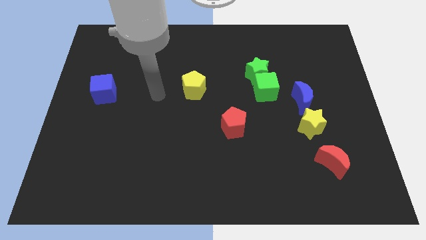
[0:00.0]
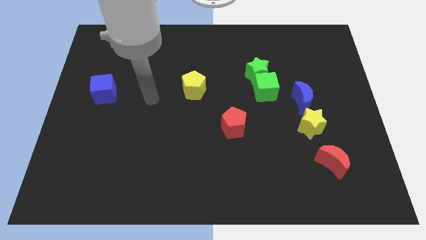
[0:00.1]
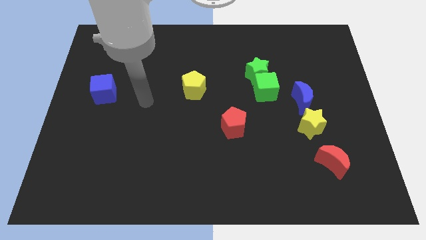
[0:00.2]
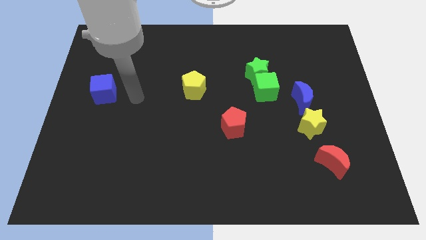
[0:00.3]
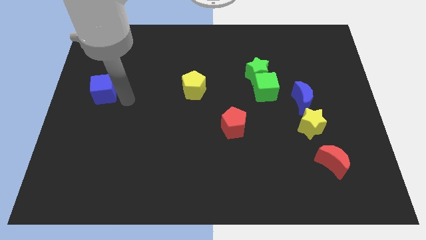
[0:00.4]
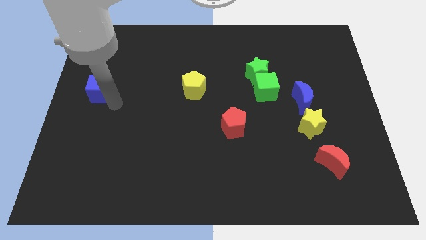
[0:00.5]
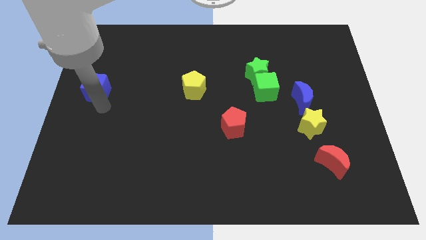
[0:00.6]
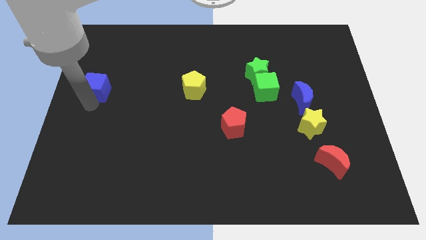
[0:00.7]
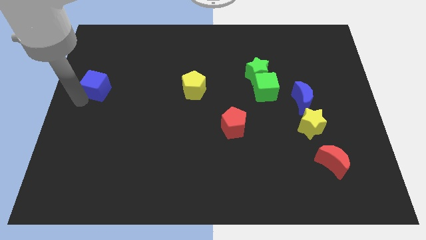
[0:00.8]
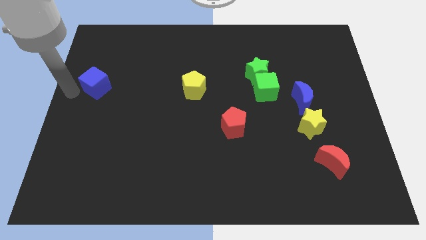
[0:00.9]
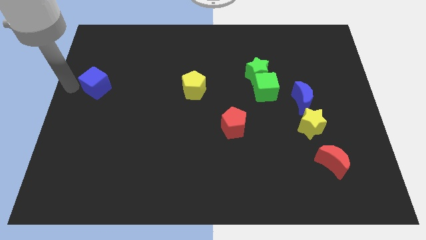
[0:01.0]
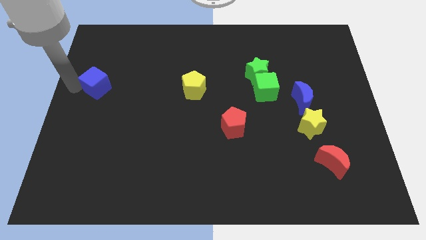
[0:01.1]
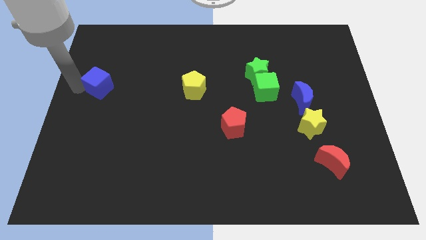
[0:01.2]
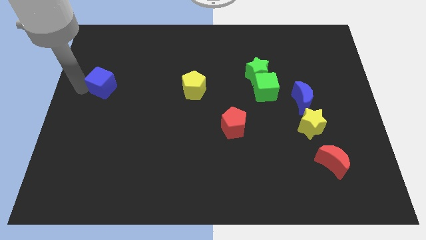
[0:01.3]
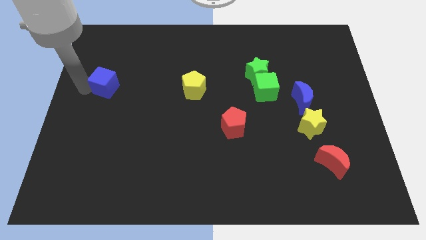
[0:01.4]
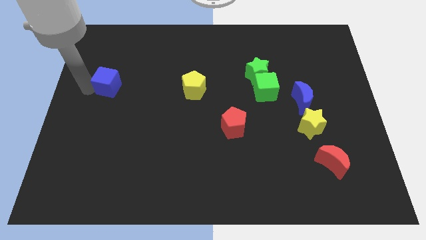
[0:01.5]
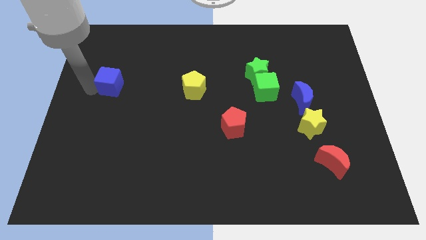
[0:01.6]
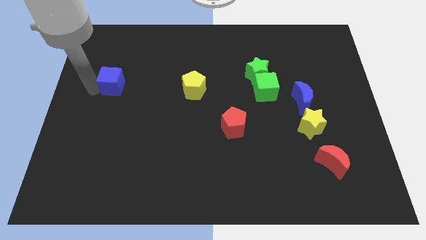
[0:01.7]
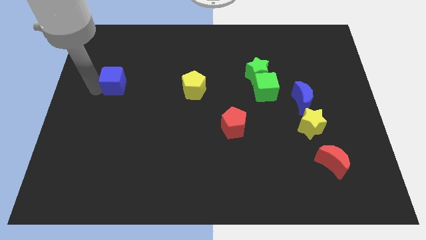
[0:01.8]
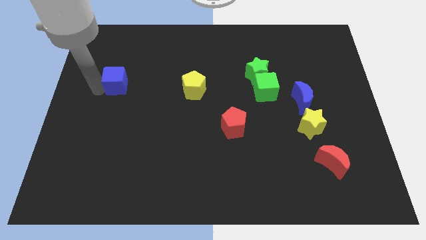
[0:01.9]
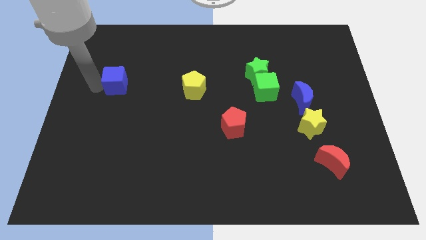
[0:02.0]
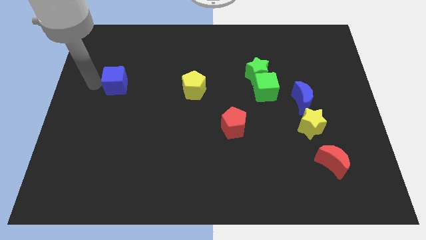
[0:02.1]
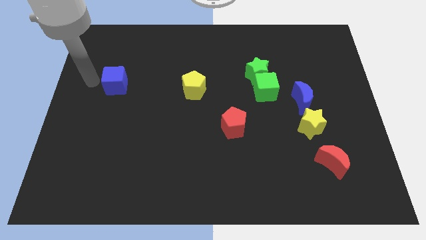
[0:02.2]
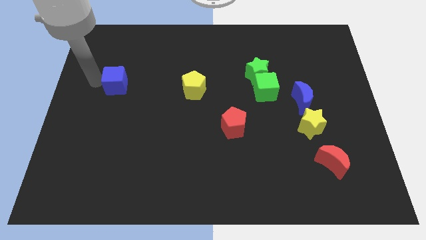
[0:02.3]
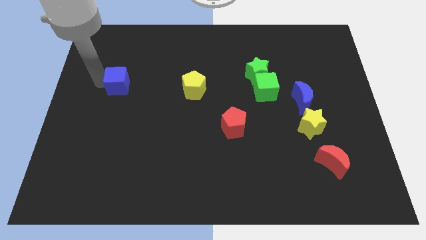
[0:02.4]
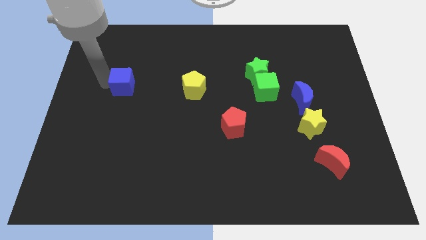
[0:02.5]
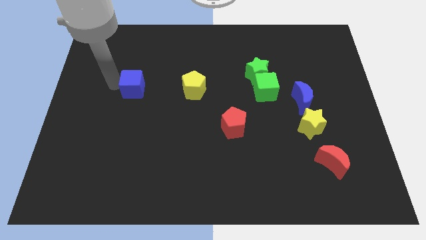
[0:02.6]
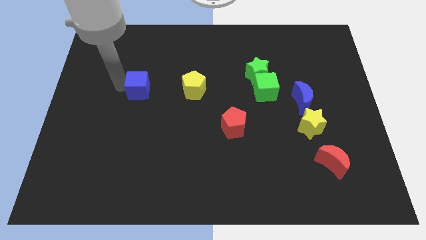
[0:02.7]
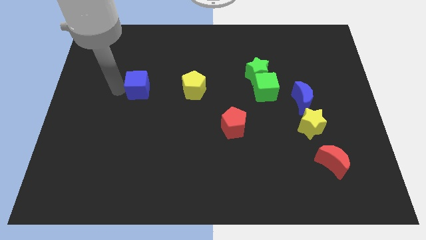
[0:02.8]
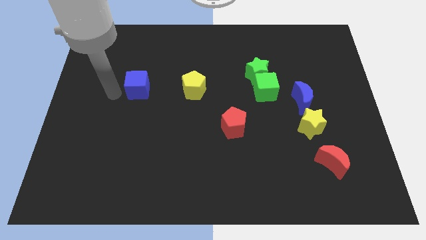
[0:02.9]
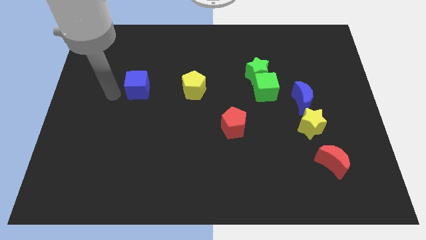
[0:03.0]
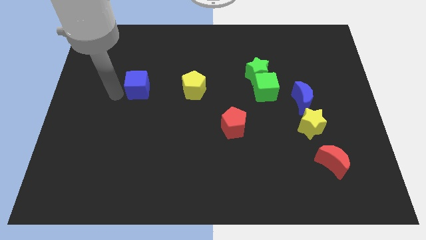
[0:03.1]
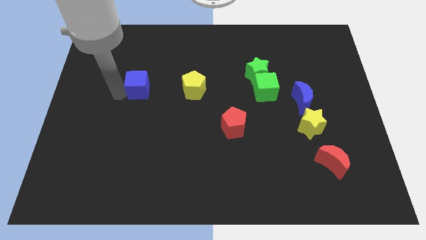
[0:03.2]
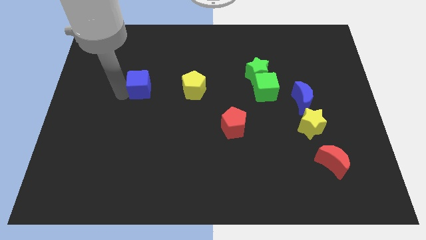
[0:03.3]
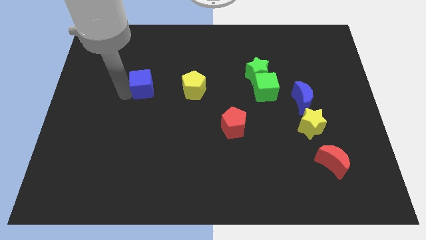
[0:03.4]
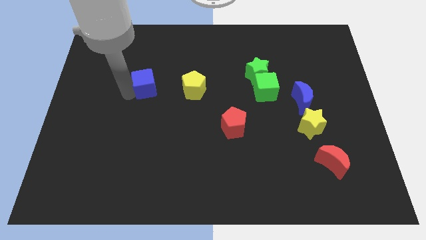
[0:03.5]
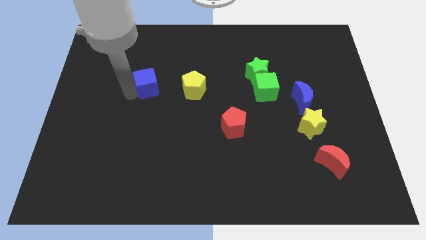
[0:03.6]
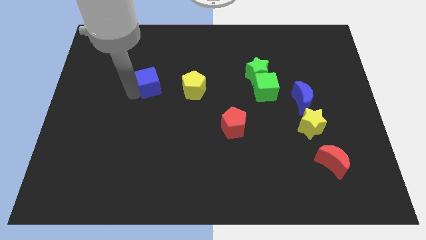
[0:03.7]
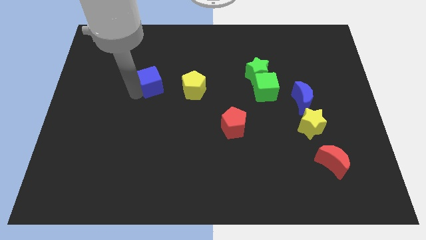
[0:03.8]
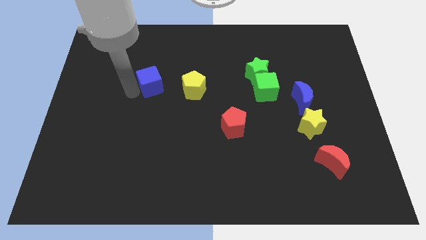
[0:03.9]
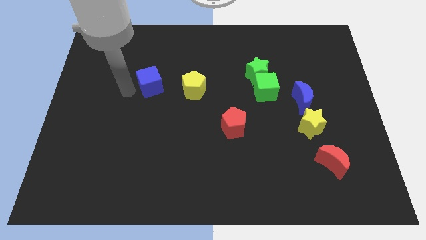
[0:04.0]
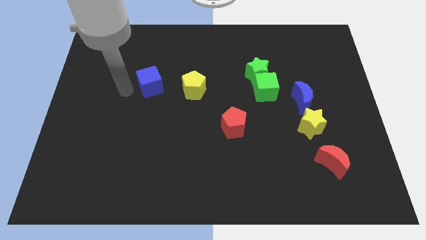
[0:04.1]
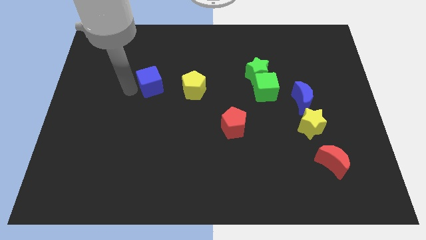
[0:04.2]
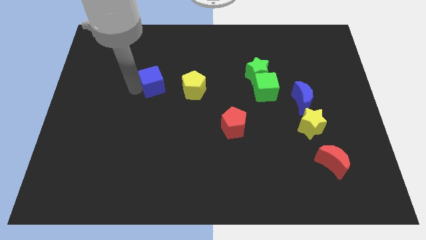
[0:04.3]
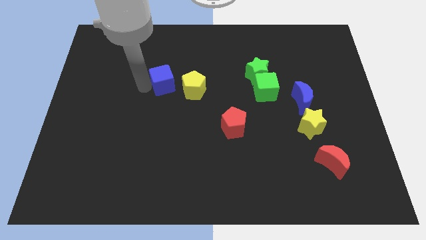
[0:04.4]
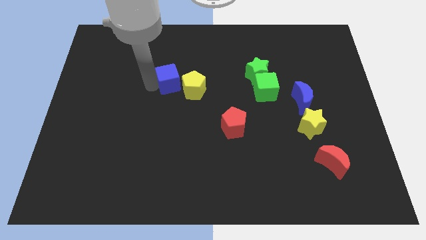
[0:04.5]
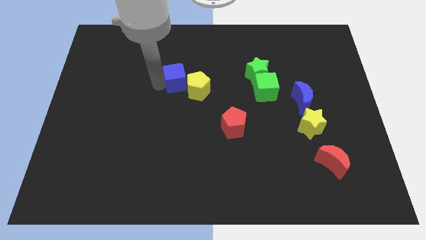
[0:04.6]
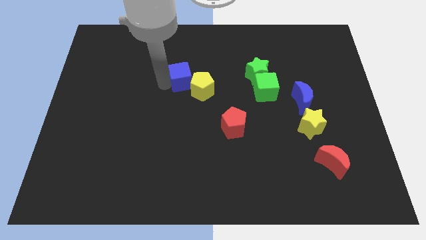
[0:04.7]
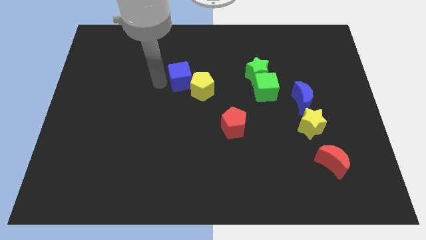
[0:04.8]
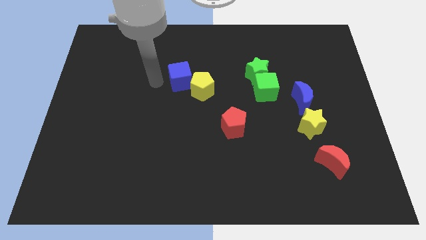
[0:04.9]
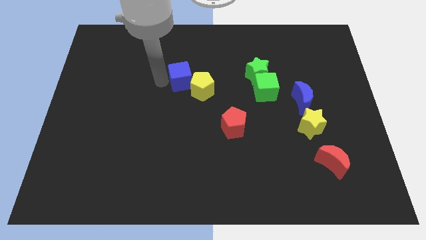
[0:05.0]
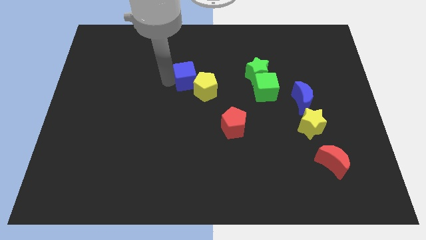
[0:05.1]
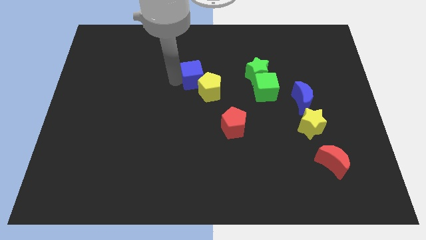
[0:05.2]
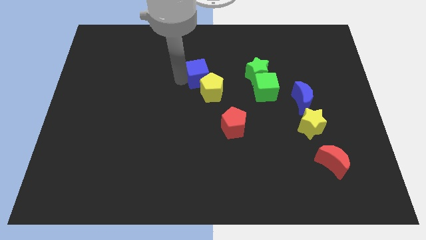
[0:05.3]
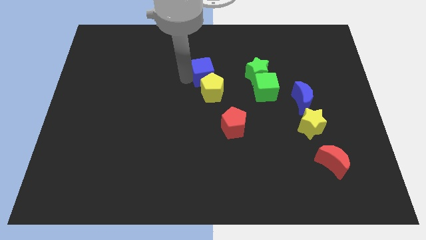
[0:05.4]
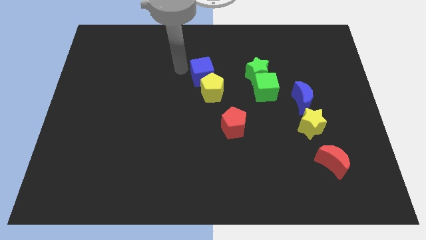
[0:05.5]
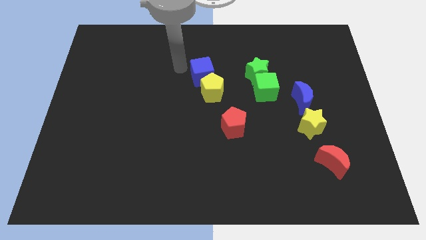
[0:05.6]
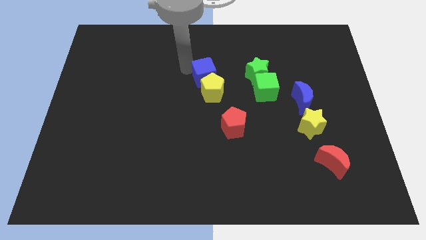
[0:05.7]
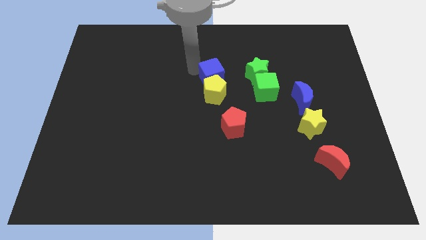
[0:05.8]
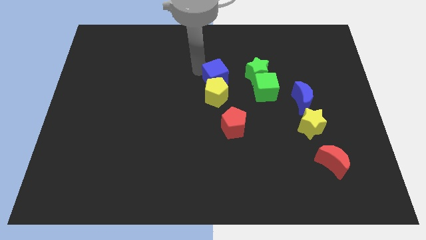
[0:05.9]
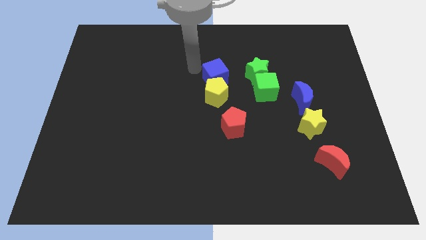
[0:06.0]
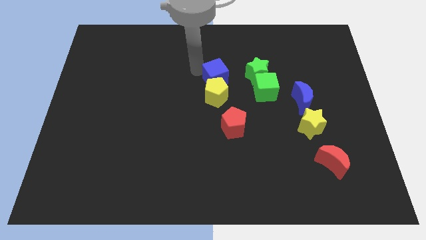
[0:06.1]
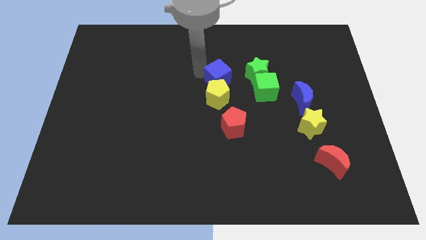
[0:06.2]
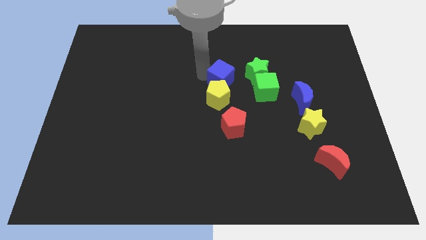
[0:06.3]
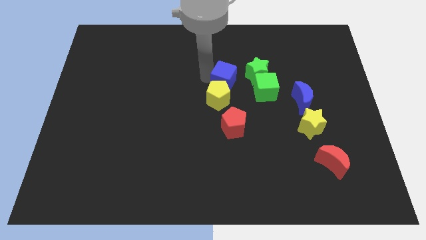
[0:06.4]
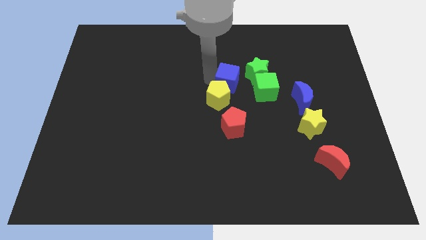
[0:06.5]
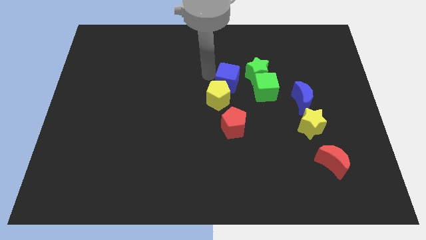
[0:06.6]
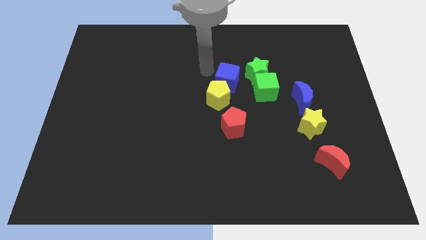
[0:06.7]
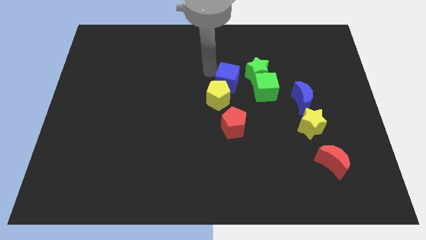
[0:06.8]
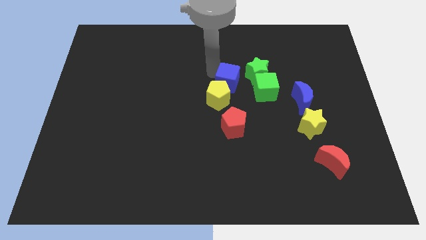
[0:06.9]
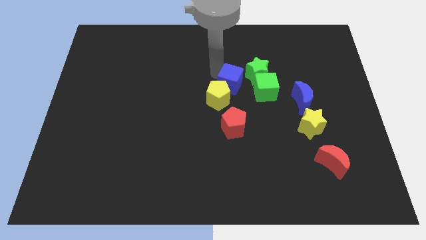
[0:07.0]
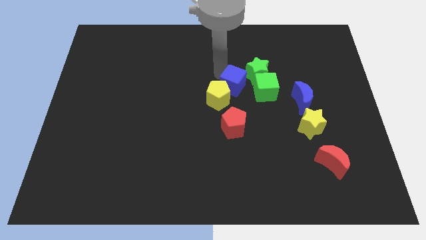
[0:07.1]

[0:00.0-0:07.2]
move the blue cube right of the yellow pentagon
